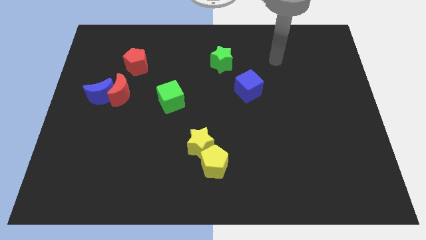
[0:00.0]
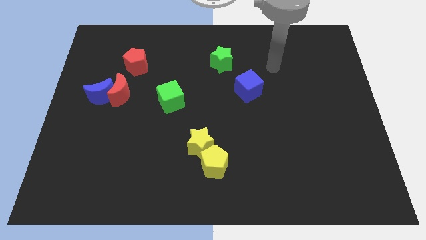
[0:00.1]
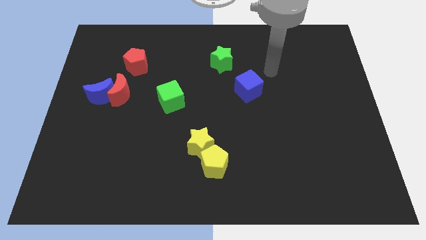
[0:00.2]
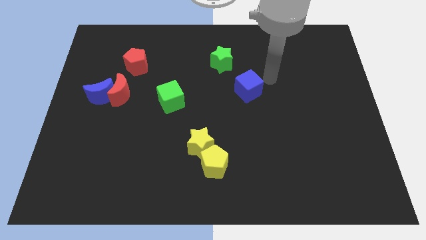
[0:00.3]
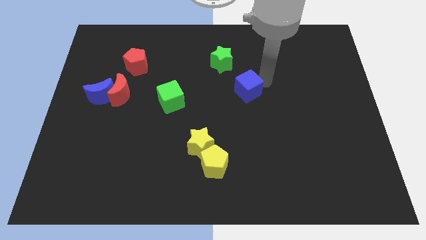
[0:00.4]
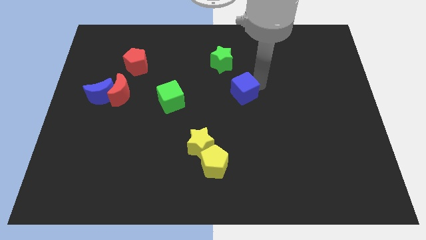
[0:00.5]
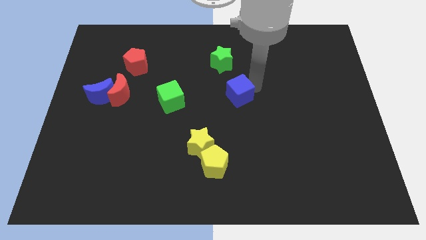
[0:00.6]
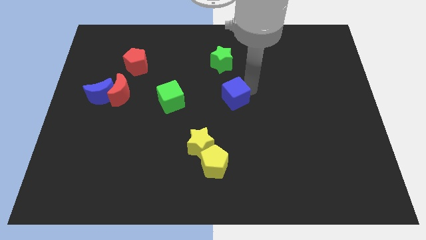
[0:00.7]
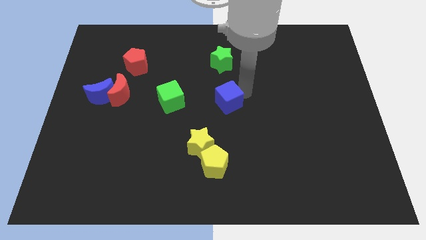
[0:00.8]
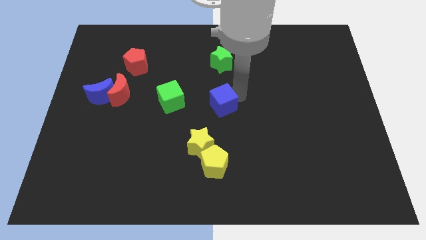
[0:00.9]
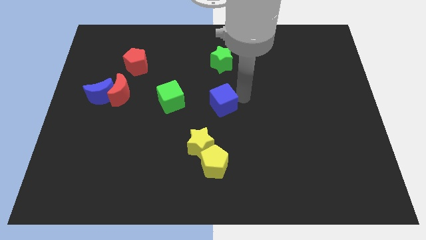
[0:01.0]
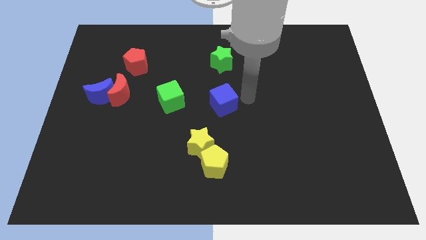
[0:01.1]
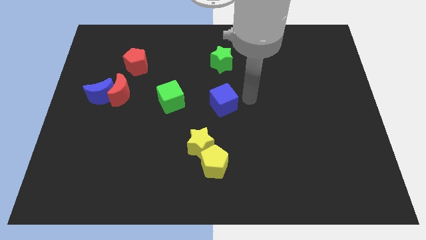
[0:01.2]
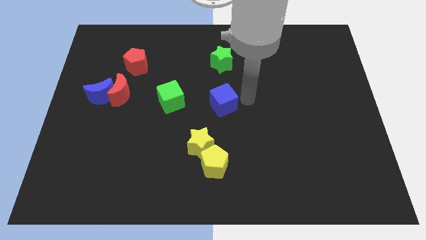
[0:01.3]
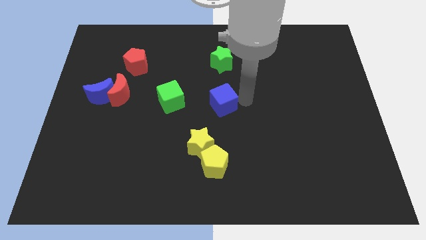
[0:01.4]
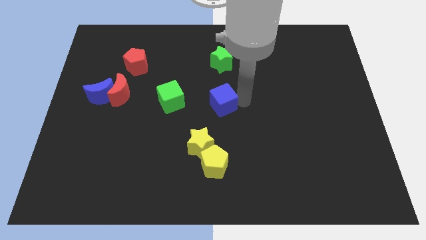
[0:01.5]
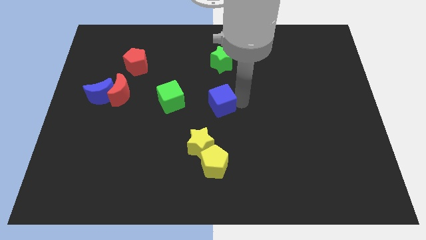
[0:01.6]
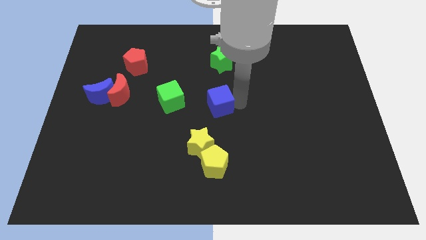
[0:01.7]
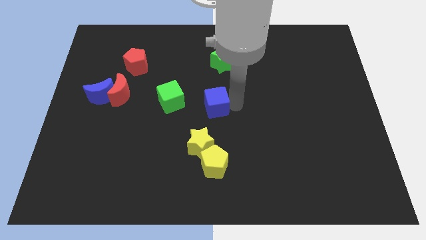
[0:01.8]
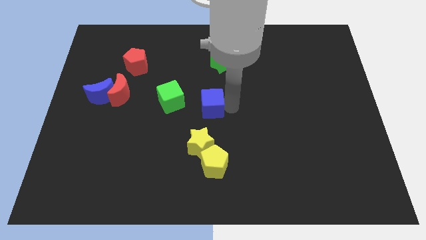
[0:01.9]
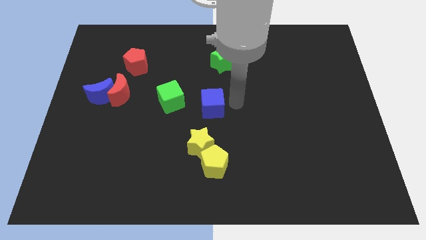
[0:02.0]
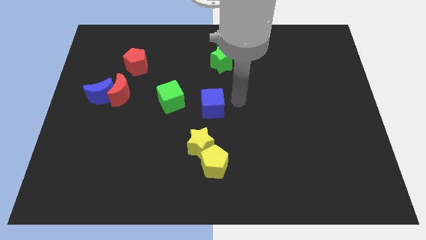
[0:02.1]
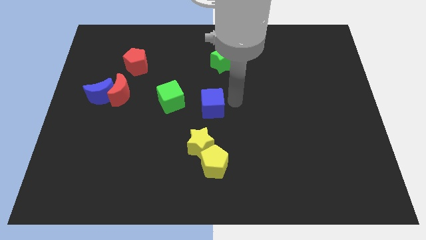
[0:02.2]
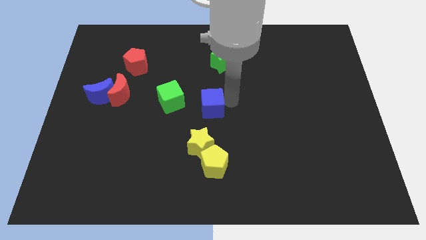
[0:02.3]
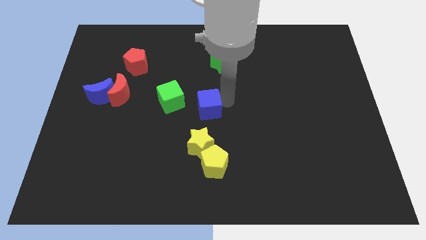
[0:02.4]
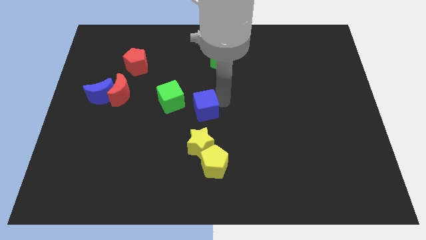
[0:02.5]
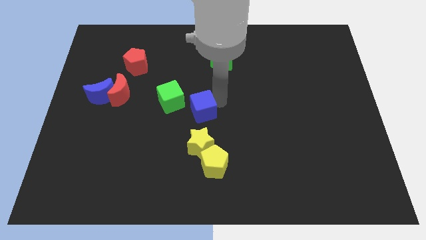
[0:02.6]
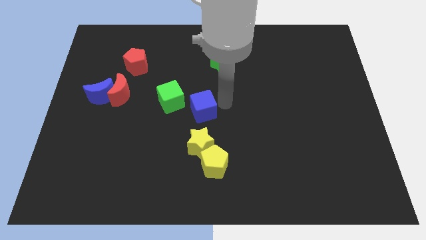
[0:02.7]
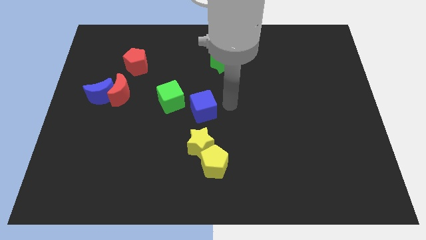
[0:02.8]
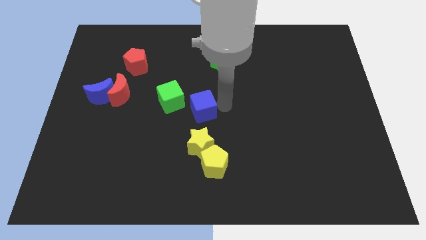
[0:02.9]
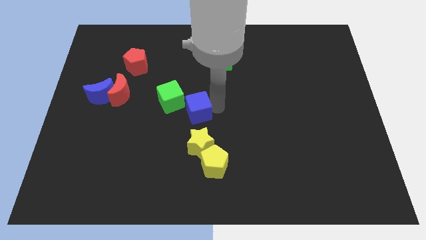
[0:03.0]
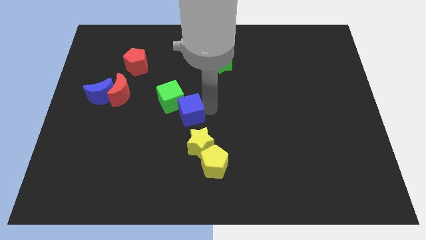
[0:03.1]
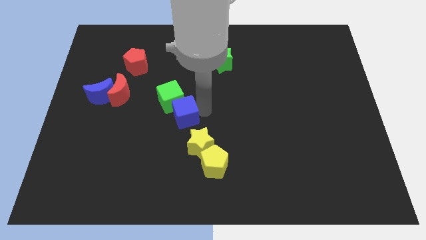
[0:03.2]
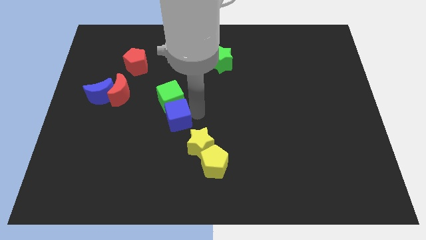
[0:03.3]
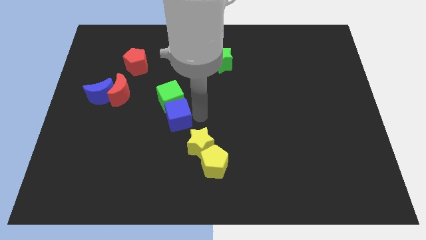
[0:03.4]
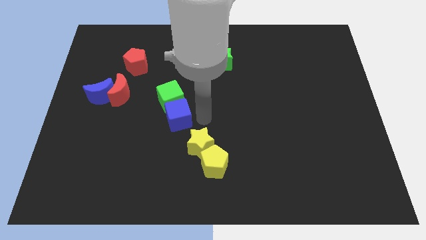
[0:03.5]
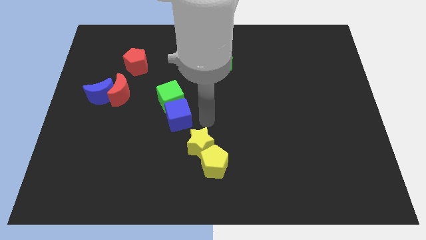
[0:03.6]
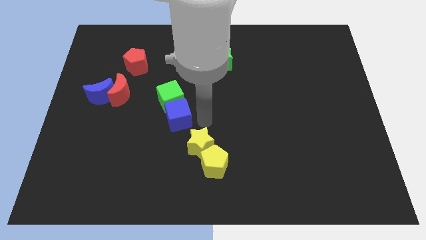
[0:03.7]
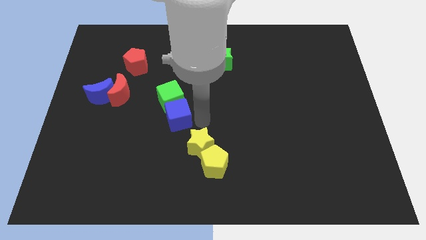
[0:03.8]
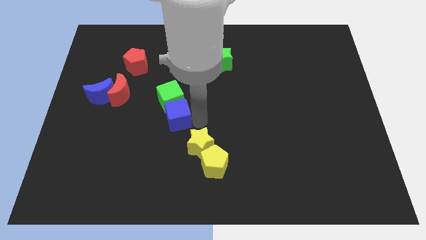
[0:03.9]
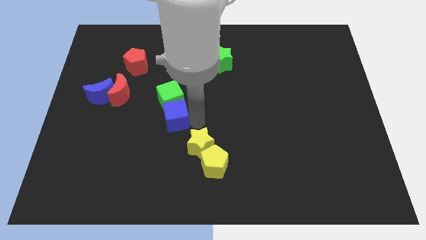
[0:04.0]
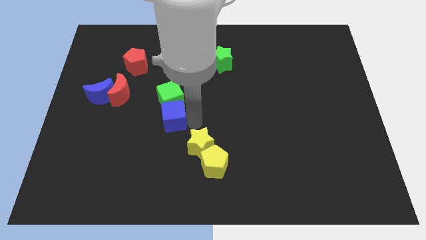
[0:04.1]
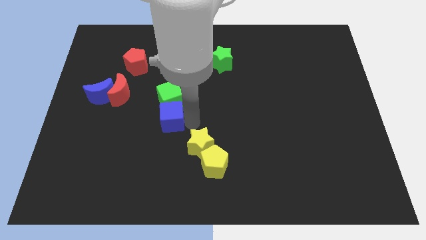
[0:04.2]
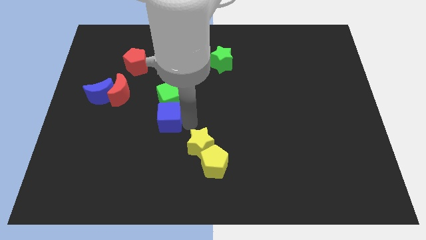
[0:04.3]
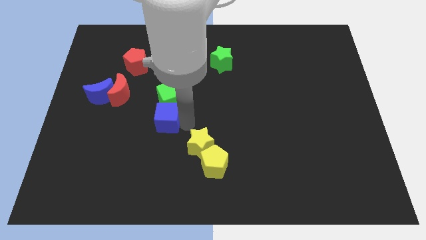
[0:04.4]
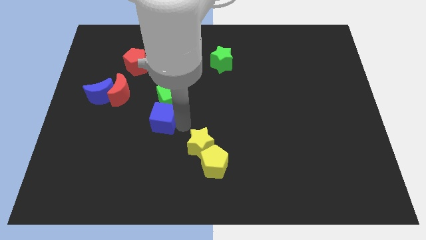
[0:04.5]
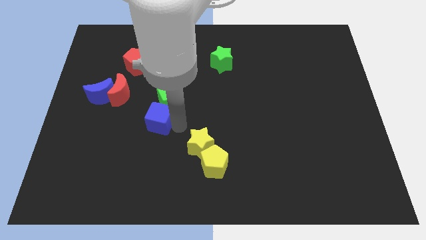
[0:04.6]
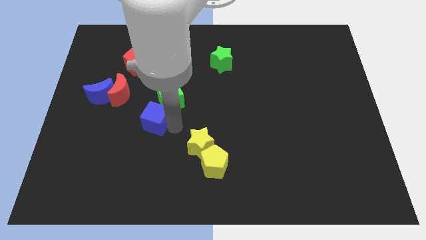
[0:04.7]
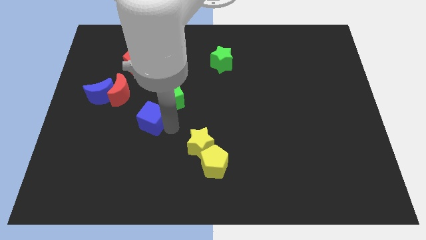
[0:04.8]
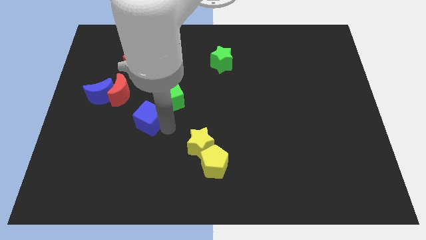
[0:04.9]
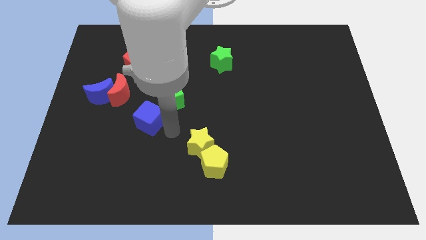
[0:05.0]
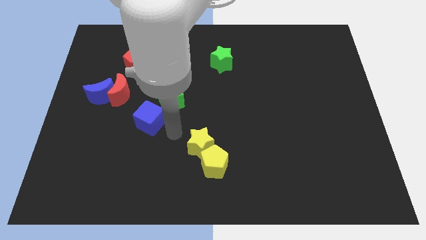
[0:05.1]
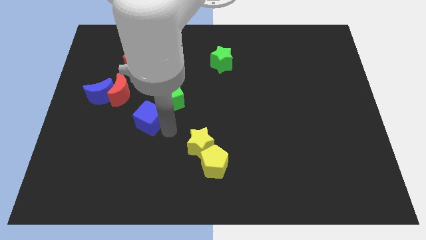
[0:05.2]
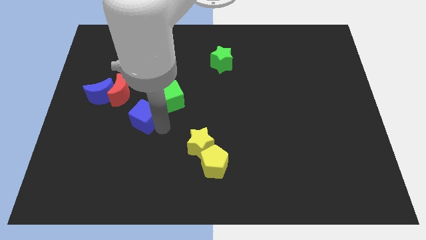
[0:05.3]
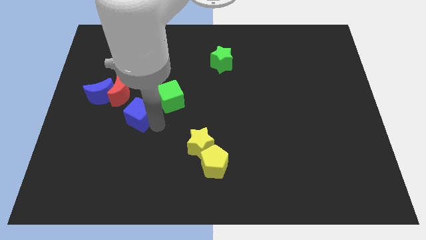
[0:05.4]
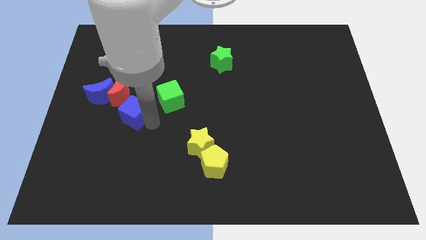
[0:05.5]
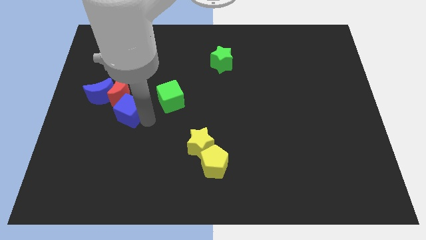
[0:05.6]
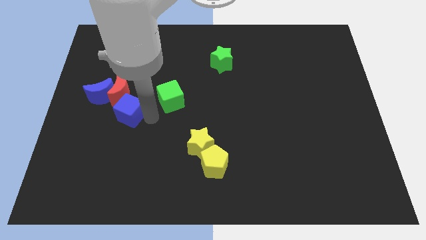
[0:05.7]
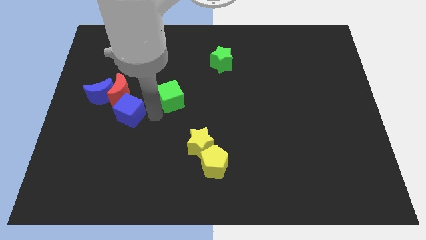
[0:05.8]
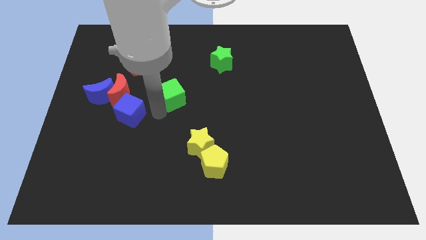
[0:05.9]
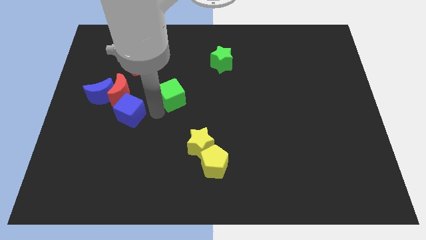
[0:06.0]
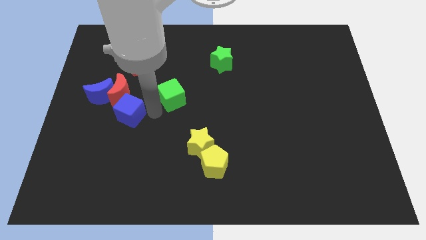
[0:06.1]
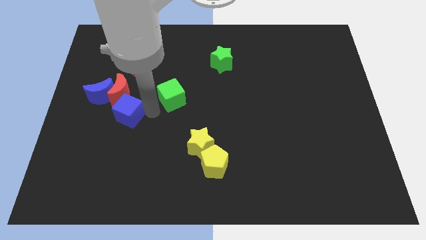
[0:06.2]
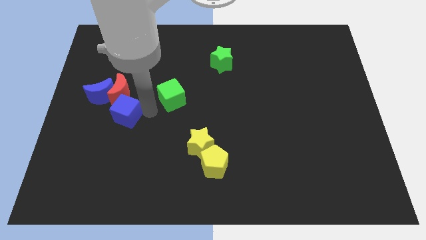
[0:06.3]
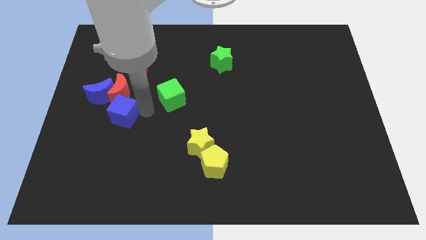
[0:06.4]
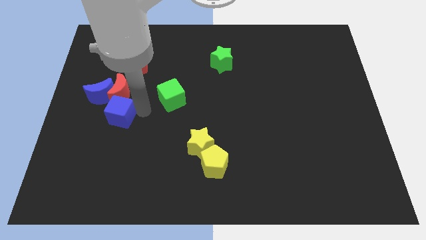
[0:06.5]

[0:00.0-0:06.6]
slide the blue cube diagonally down and to the left of the red moon
